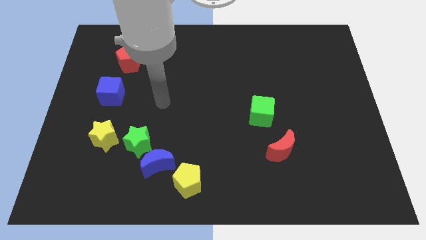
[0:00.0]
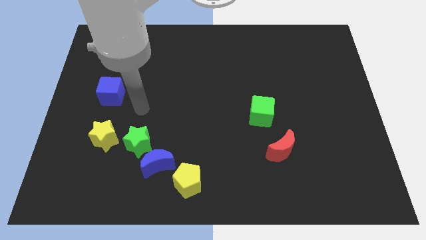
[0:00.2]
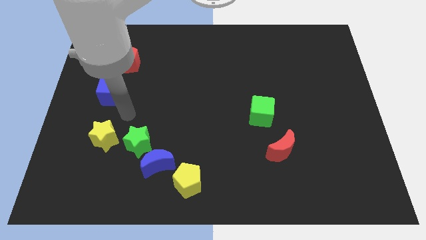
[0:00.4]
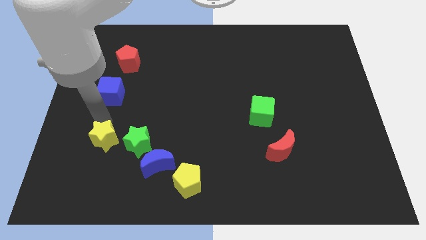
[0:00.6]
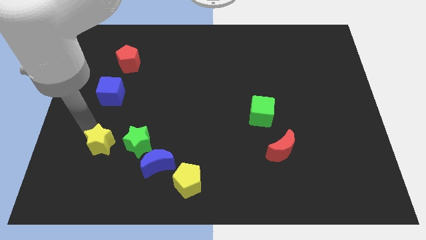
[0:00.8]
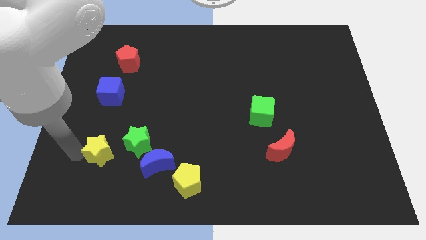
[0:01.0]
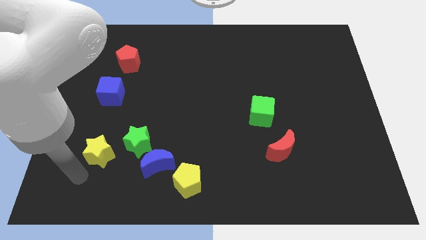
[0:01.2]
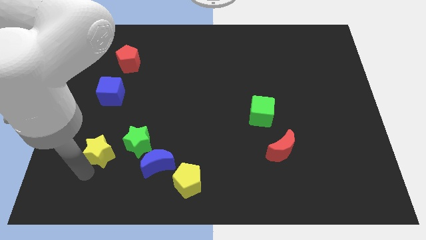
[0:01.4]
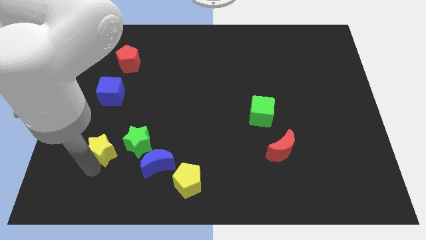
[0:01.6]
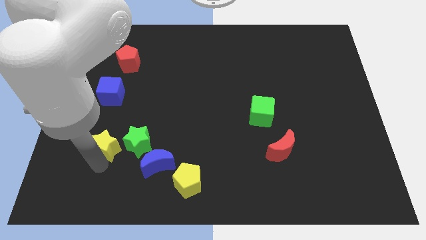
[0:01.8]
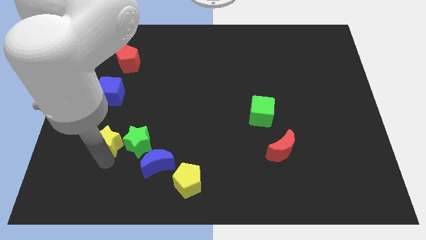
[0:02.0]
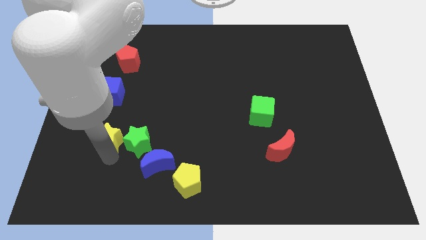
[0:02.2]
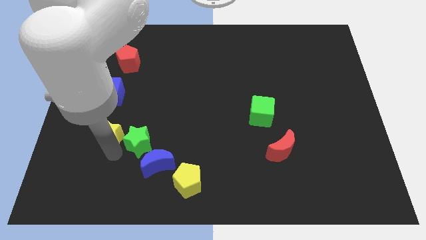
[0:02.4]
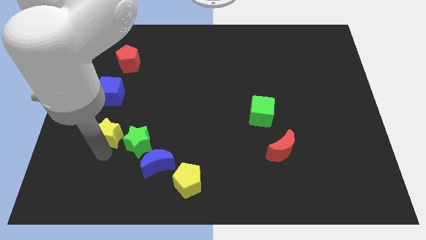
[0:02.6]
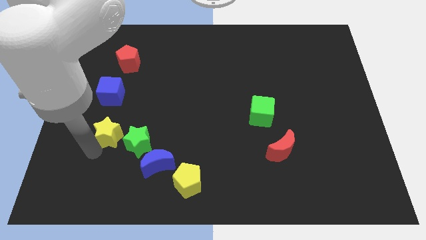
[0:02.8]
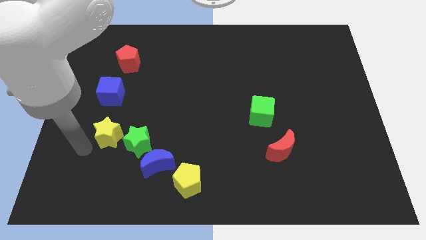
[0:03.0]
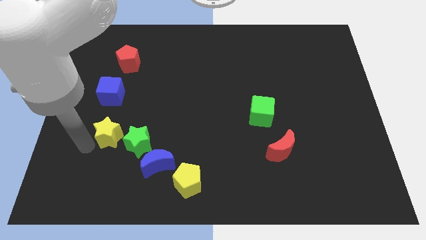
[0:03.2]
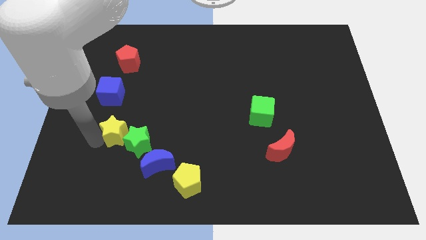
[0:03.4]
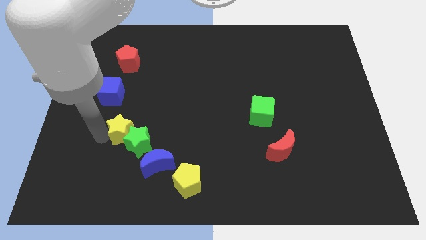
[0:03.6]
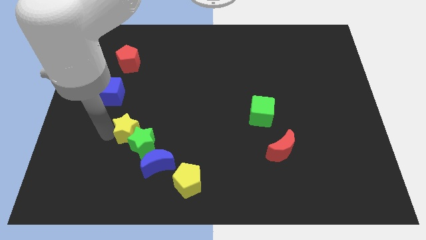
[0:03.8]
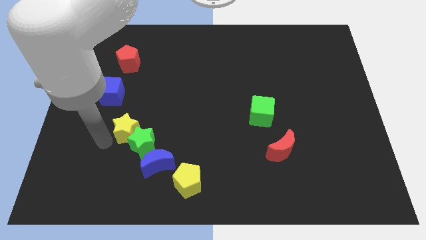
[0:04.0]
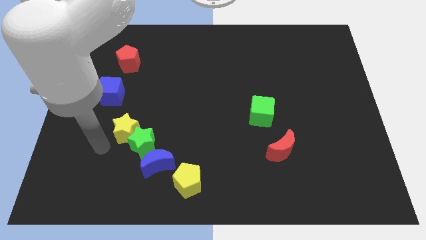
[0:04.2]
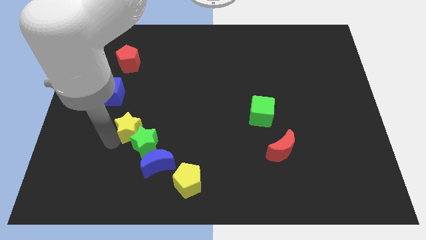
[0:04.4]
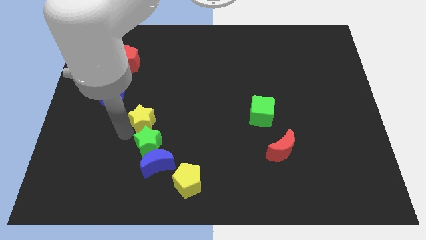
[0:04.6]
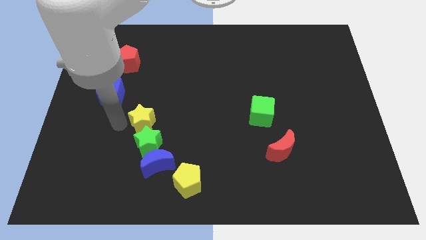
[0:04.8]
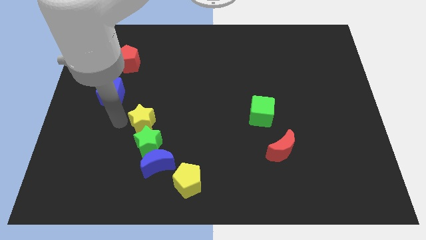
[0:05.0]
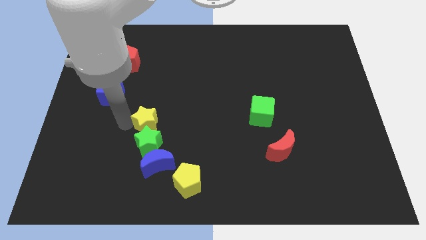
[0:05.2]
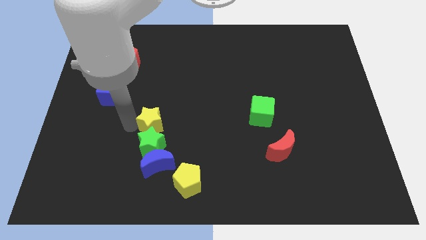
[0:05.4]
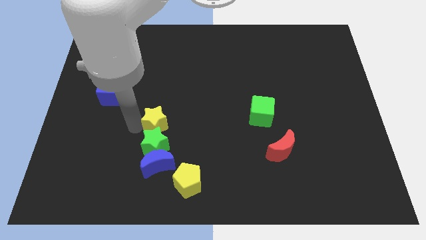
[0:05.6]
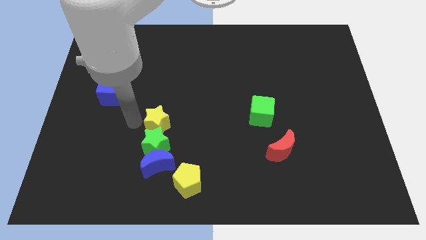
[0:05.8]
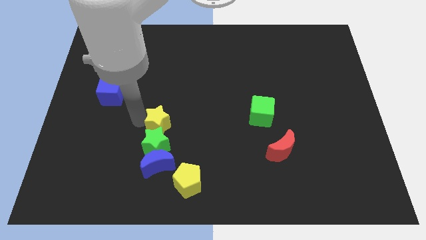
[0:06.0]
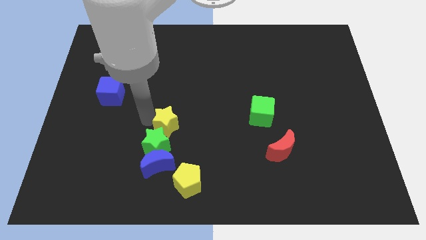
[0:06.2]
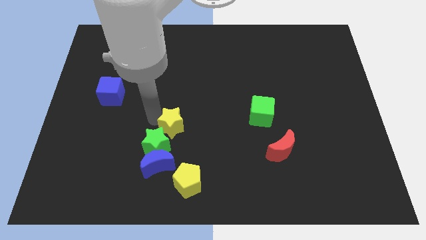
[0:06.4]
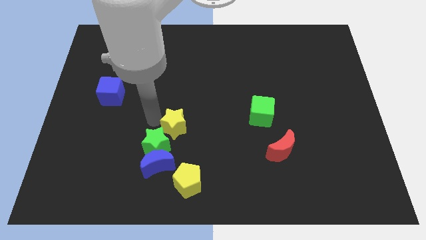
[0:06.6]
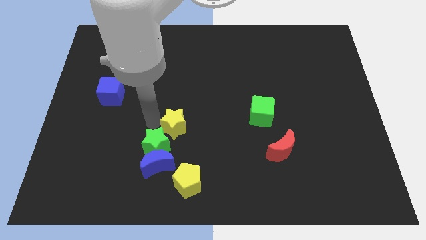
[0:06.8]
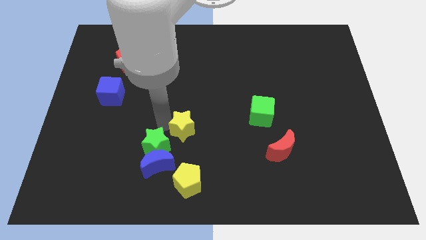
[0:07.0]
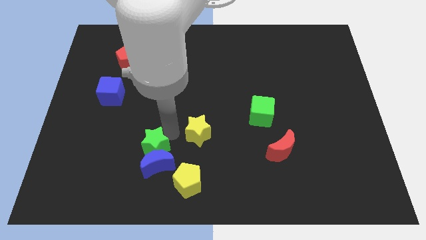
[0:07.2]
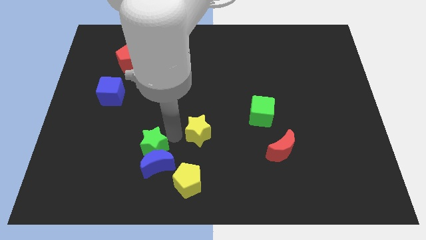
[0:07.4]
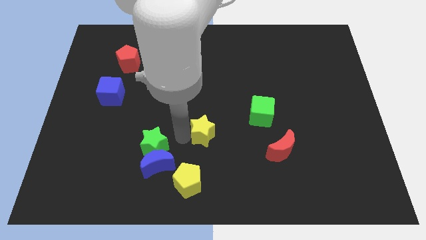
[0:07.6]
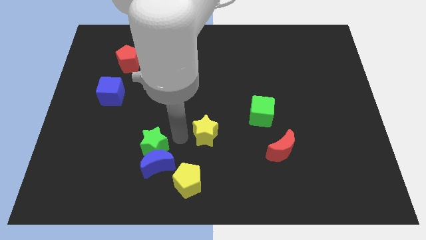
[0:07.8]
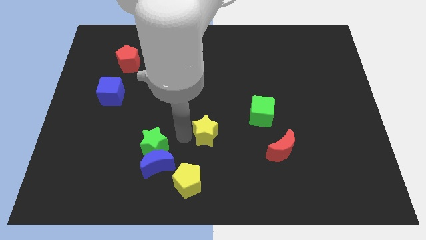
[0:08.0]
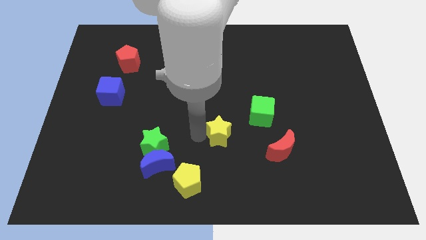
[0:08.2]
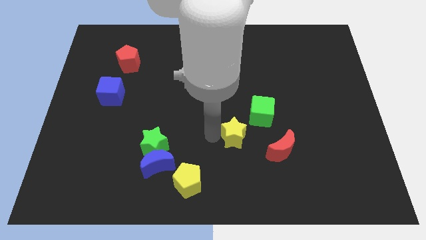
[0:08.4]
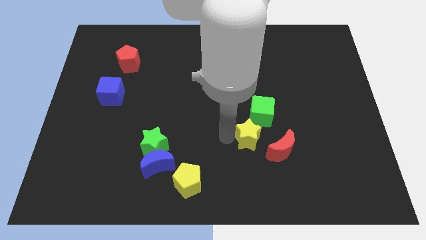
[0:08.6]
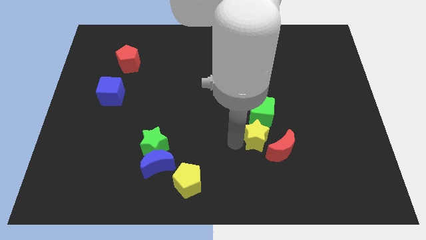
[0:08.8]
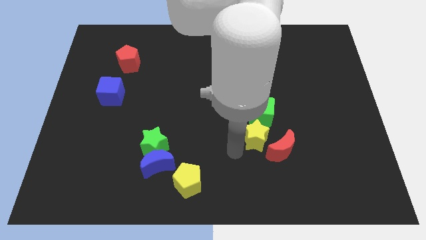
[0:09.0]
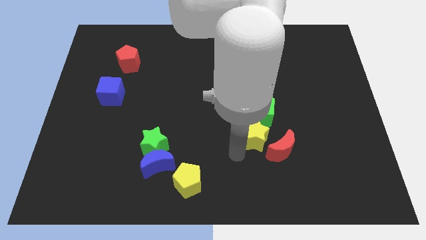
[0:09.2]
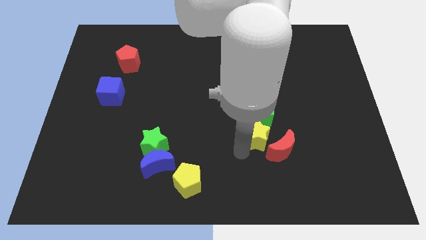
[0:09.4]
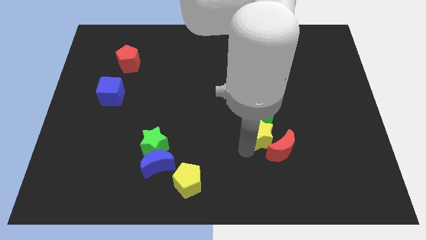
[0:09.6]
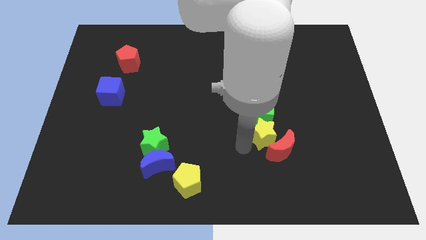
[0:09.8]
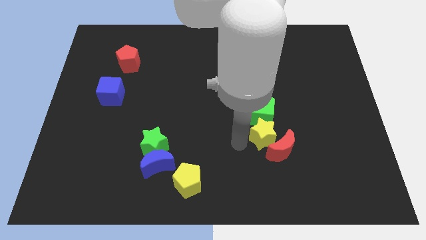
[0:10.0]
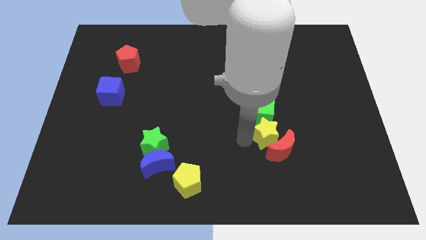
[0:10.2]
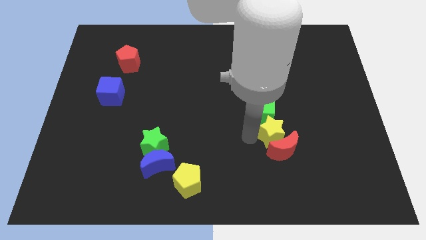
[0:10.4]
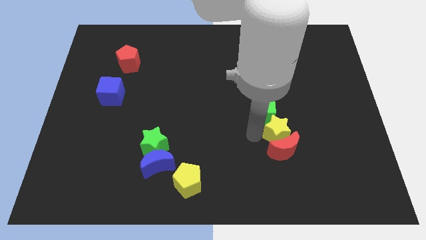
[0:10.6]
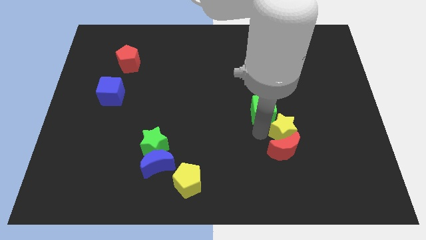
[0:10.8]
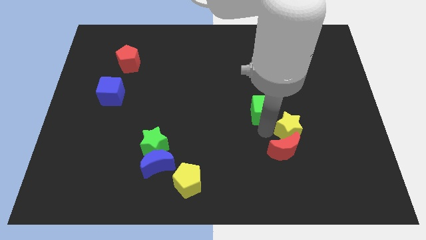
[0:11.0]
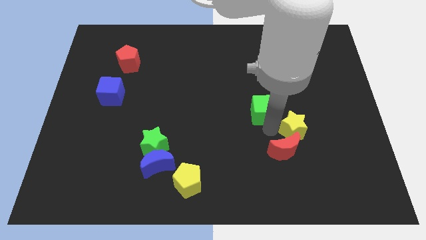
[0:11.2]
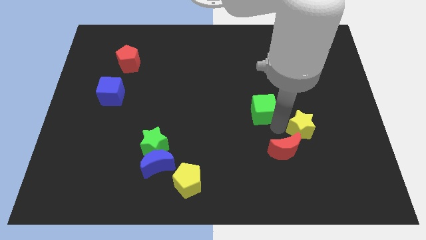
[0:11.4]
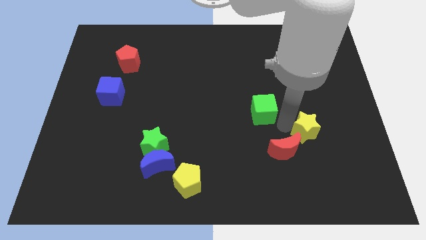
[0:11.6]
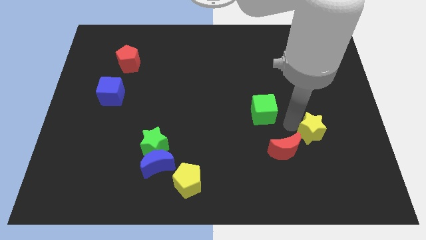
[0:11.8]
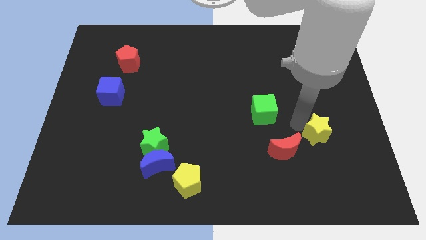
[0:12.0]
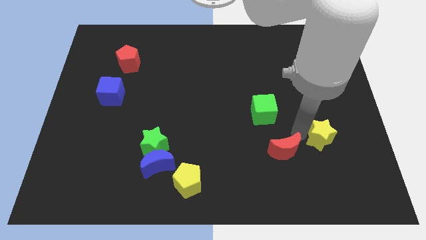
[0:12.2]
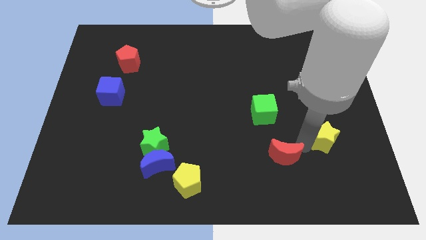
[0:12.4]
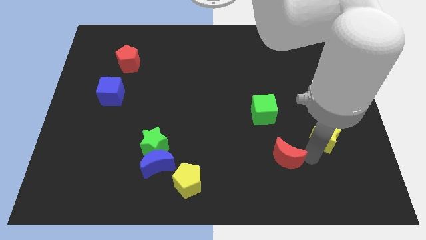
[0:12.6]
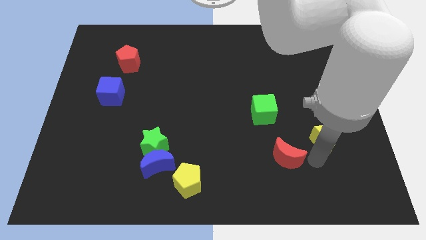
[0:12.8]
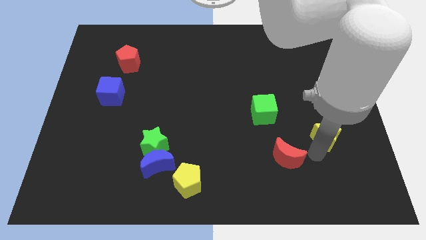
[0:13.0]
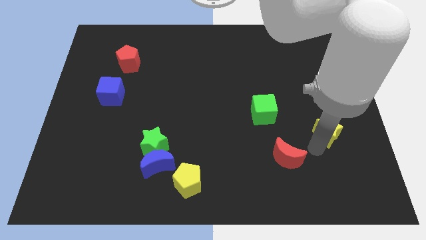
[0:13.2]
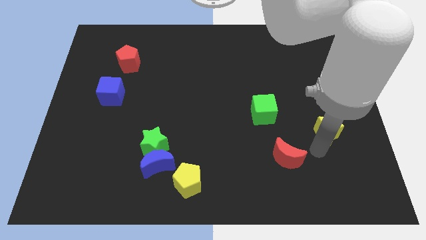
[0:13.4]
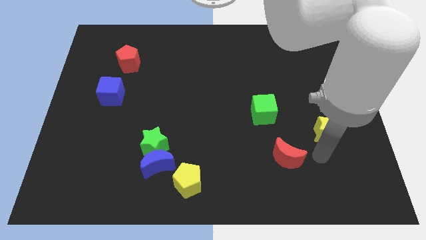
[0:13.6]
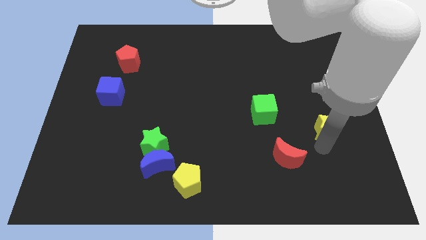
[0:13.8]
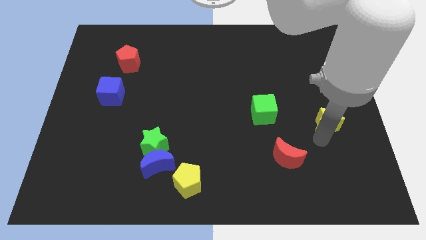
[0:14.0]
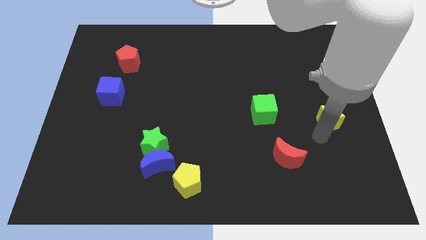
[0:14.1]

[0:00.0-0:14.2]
move the yellow star to the right side
